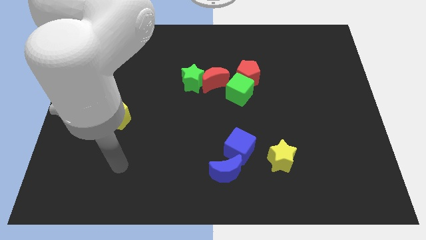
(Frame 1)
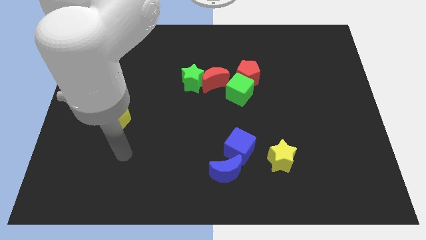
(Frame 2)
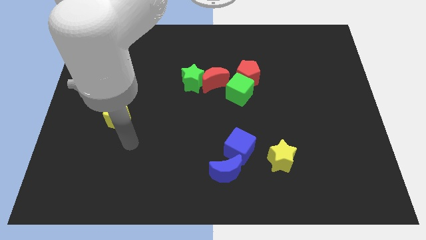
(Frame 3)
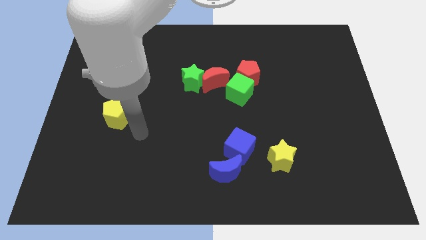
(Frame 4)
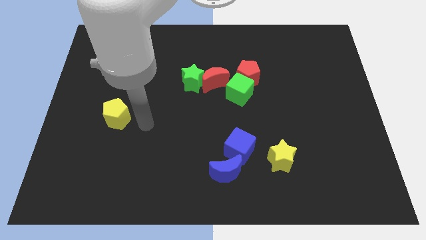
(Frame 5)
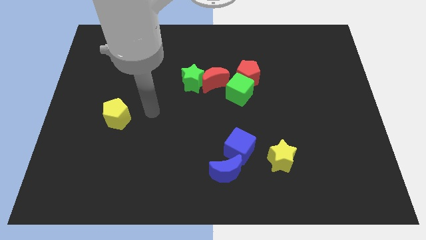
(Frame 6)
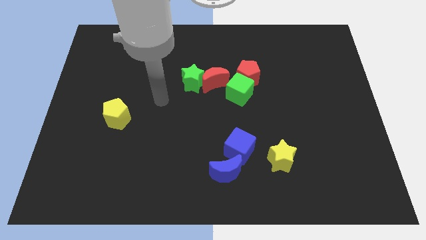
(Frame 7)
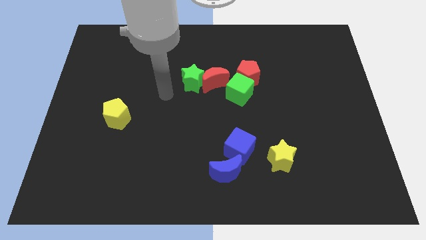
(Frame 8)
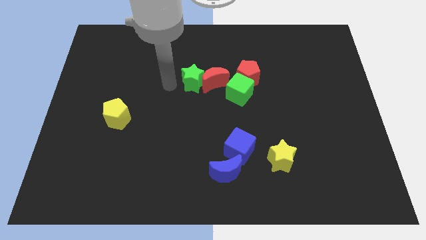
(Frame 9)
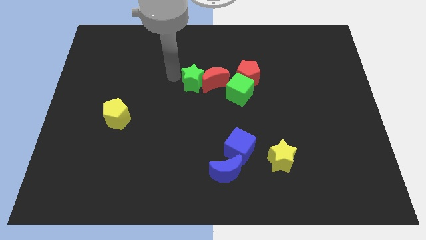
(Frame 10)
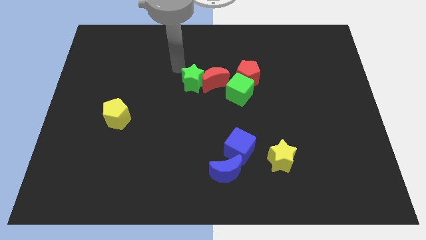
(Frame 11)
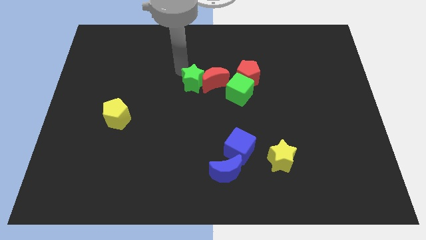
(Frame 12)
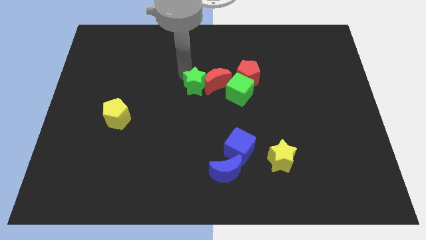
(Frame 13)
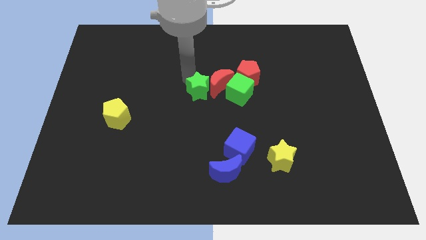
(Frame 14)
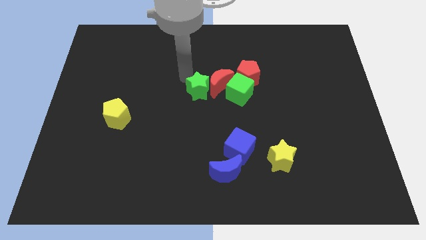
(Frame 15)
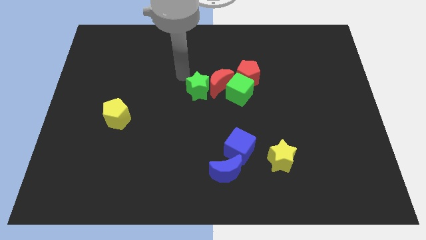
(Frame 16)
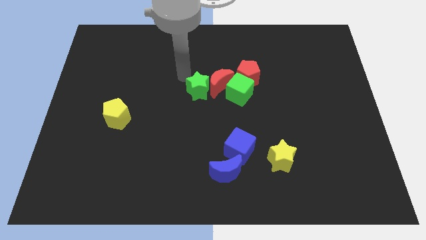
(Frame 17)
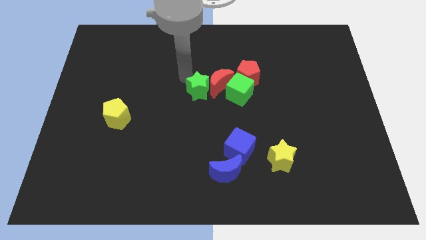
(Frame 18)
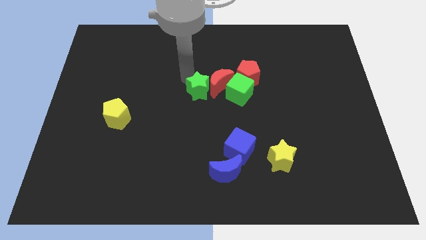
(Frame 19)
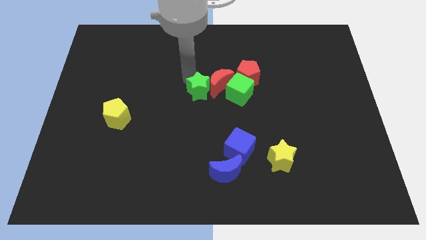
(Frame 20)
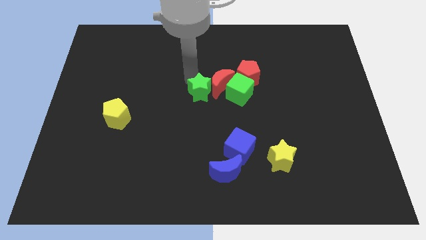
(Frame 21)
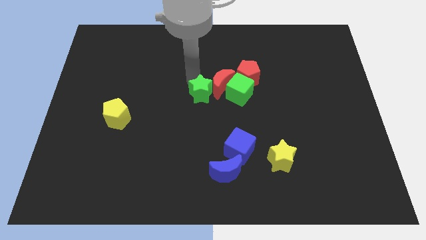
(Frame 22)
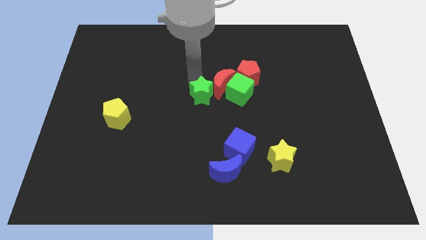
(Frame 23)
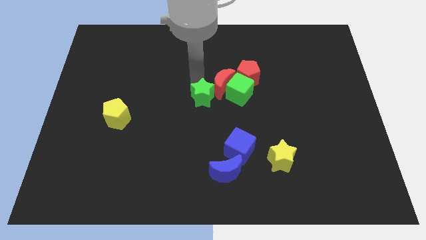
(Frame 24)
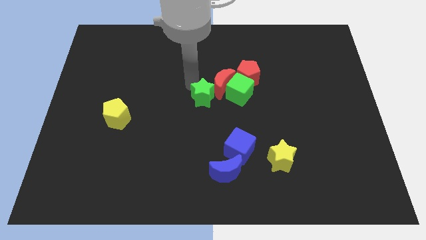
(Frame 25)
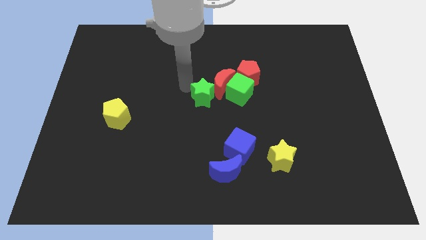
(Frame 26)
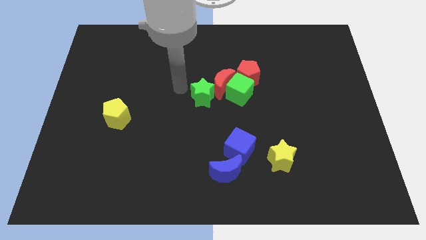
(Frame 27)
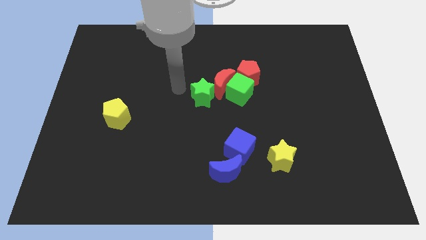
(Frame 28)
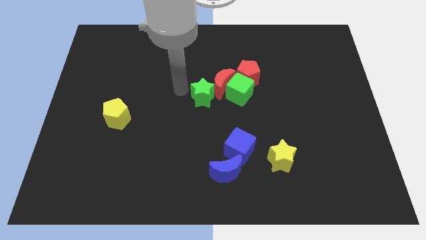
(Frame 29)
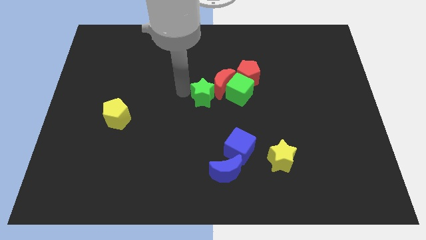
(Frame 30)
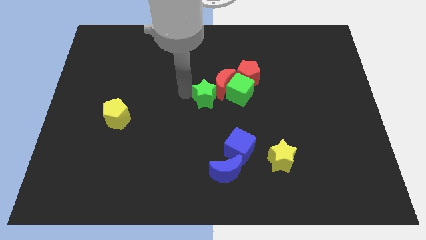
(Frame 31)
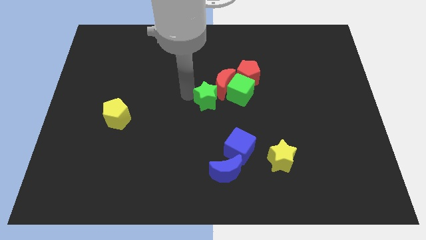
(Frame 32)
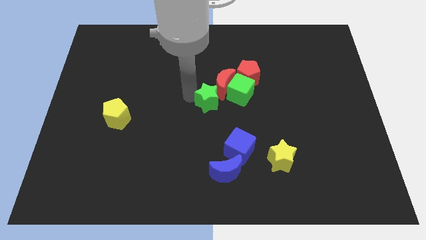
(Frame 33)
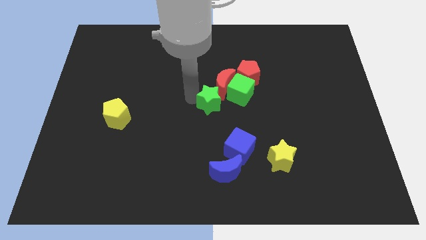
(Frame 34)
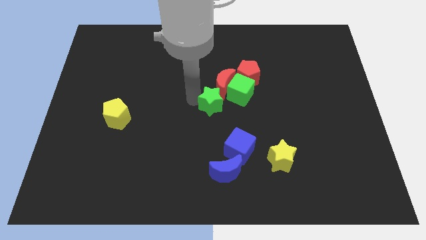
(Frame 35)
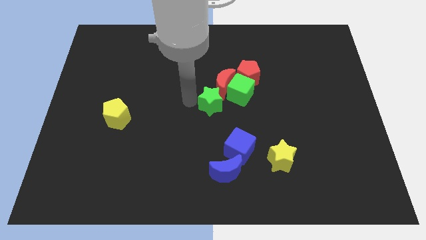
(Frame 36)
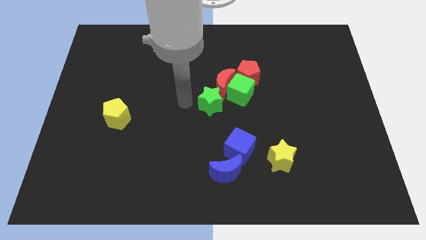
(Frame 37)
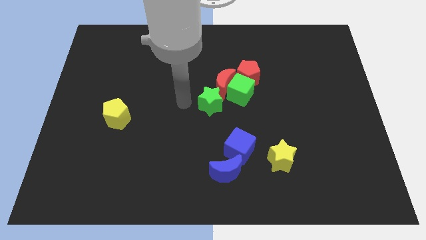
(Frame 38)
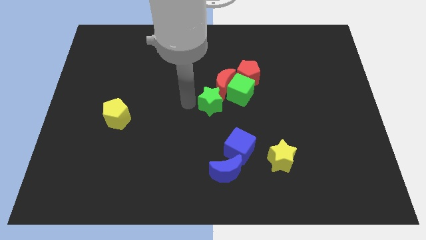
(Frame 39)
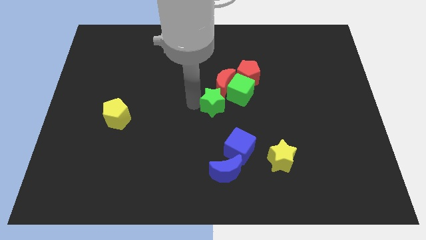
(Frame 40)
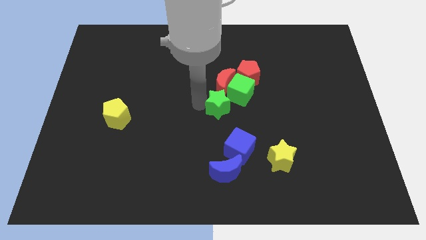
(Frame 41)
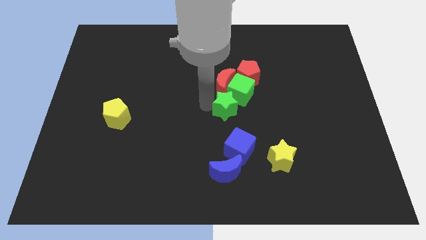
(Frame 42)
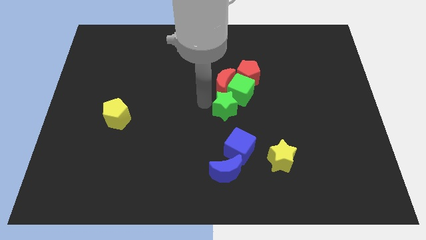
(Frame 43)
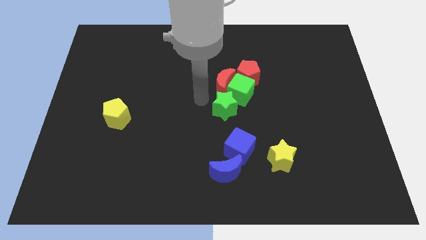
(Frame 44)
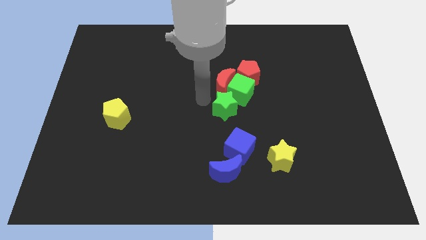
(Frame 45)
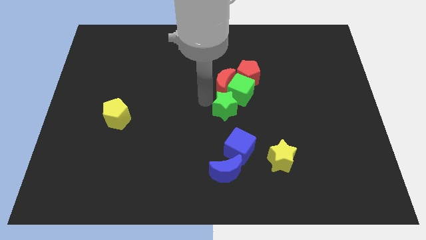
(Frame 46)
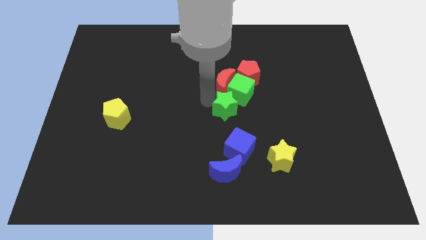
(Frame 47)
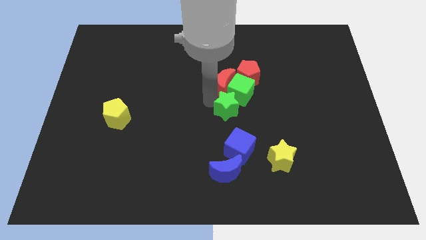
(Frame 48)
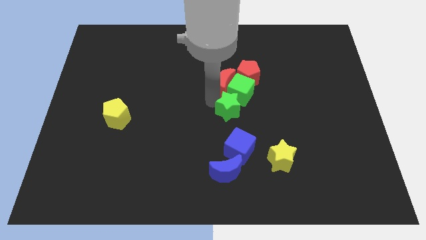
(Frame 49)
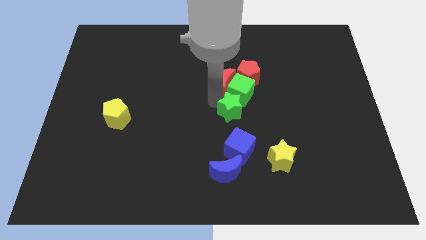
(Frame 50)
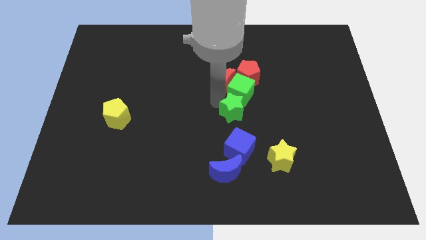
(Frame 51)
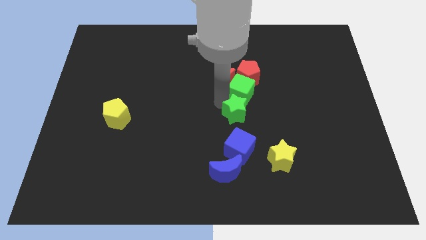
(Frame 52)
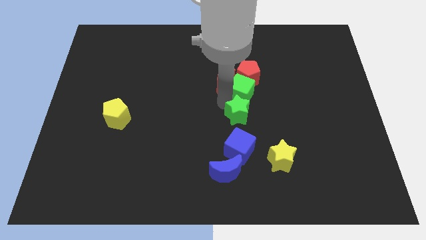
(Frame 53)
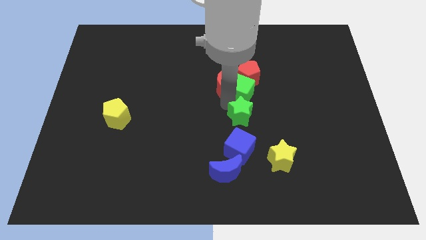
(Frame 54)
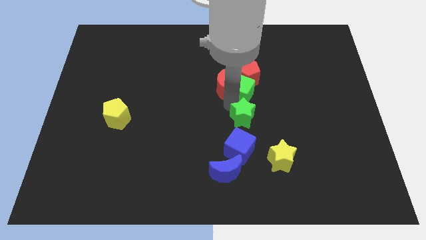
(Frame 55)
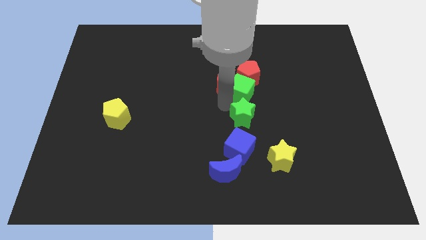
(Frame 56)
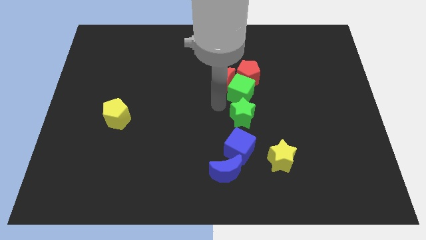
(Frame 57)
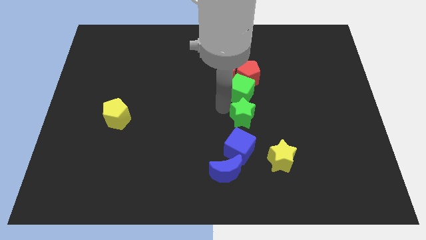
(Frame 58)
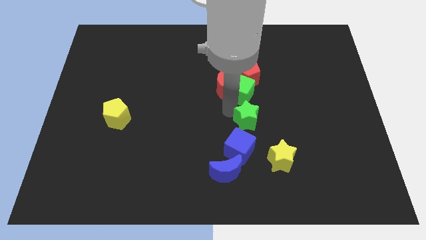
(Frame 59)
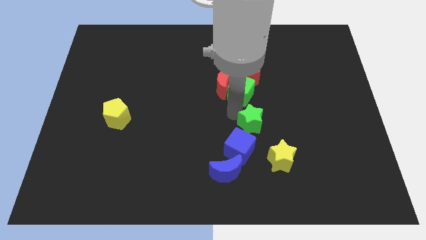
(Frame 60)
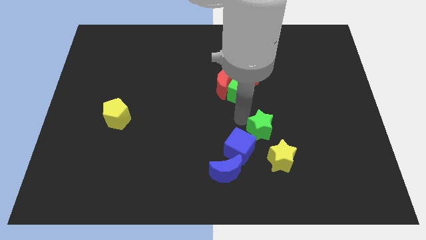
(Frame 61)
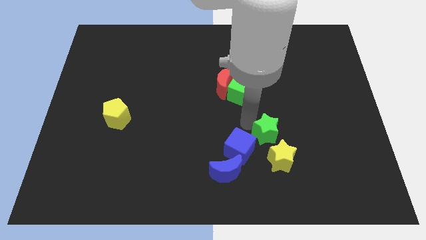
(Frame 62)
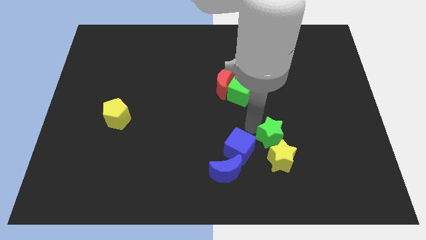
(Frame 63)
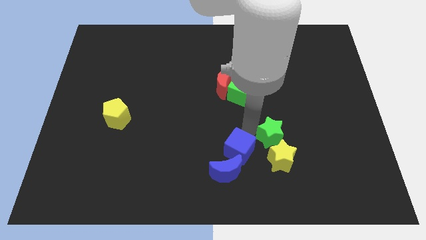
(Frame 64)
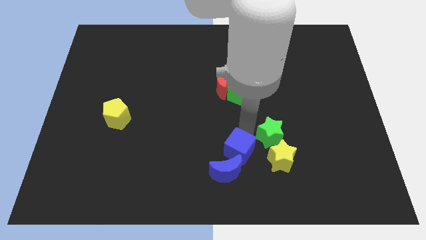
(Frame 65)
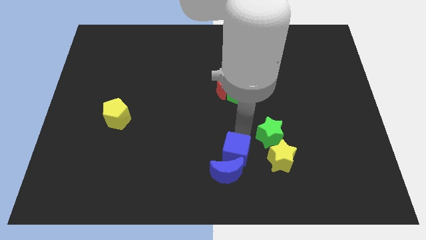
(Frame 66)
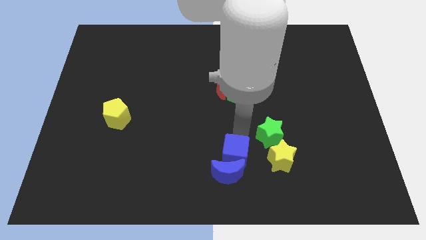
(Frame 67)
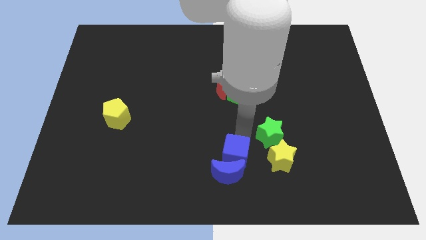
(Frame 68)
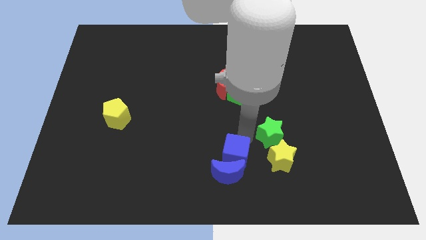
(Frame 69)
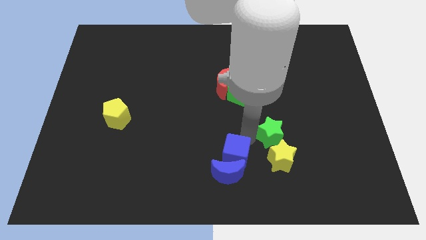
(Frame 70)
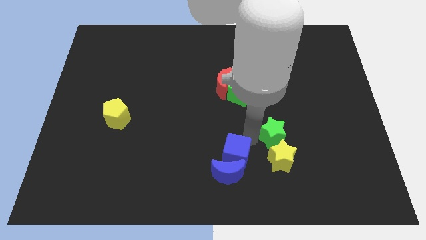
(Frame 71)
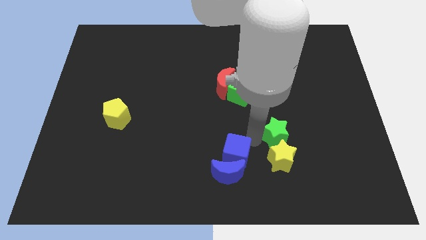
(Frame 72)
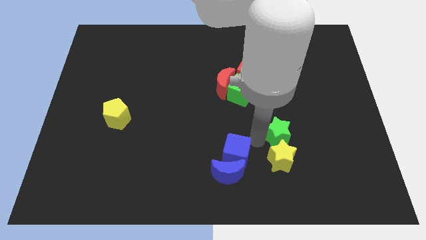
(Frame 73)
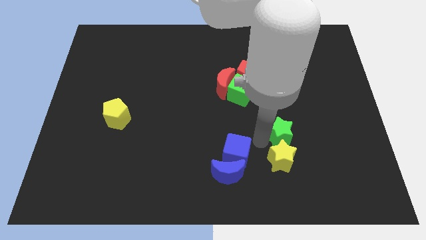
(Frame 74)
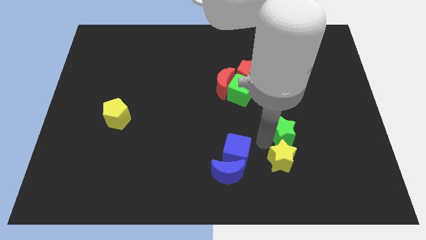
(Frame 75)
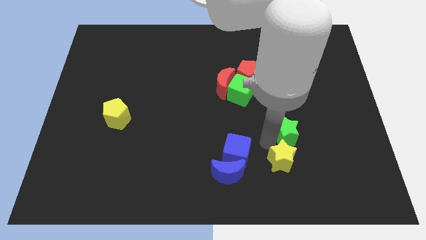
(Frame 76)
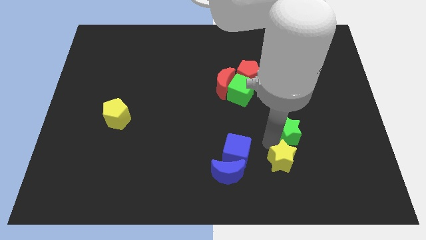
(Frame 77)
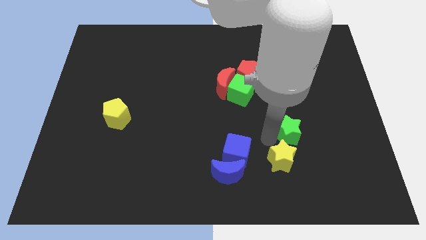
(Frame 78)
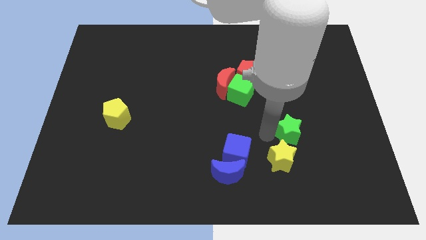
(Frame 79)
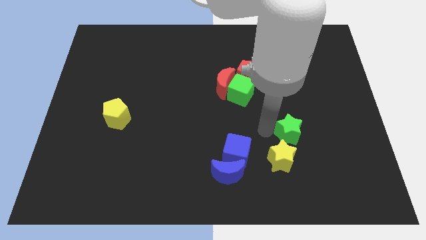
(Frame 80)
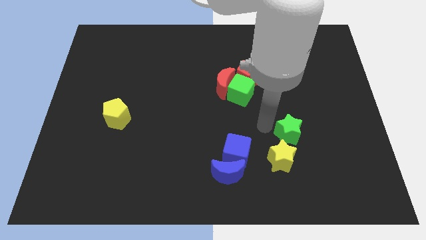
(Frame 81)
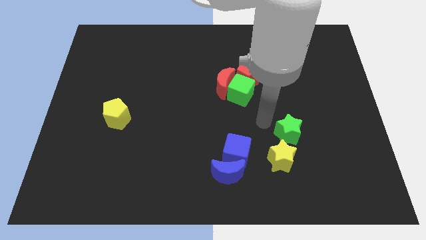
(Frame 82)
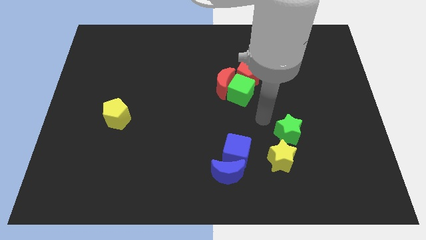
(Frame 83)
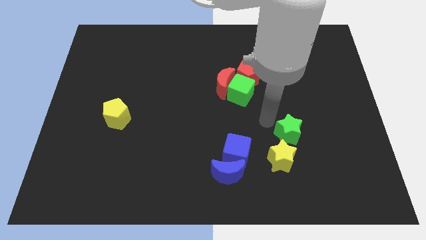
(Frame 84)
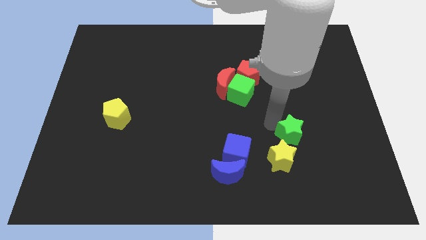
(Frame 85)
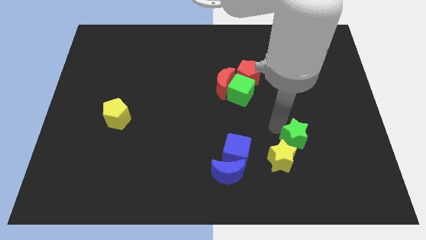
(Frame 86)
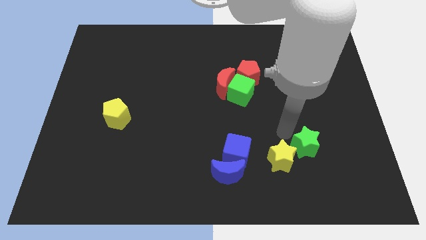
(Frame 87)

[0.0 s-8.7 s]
push the green star to the right side of the yellow star
